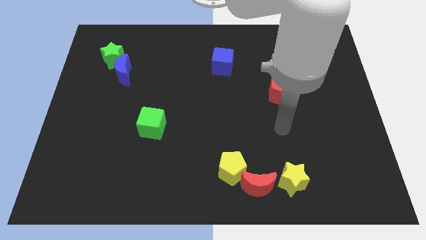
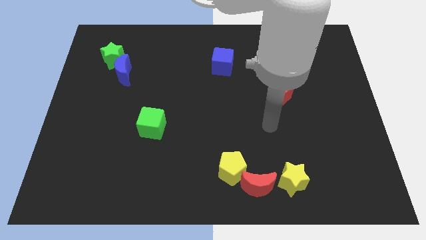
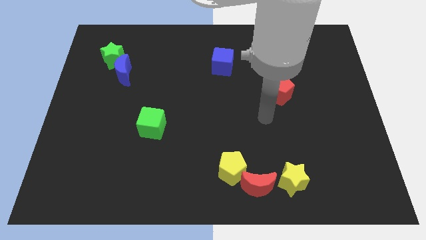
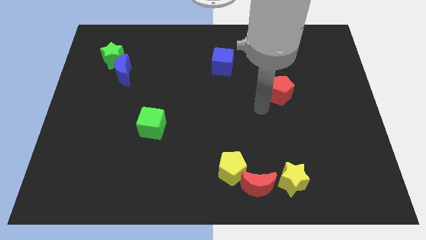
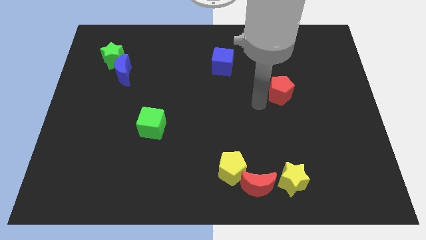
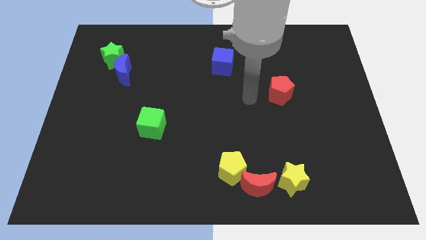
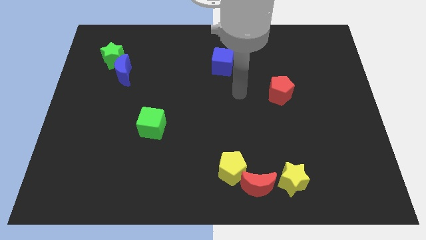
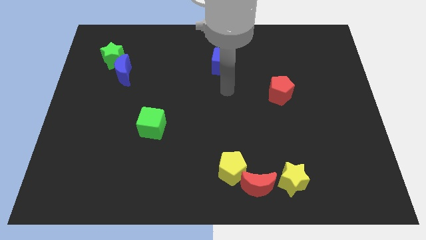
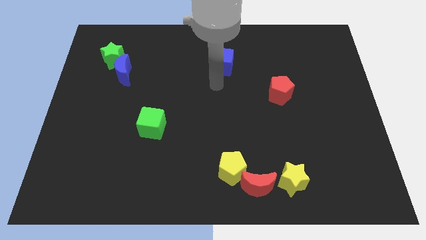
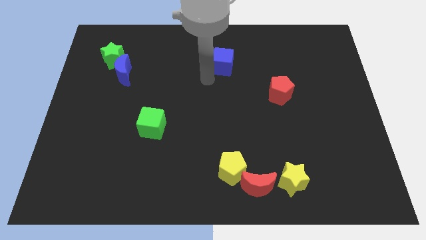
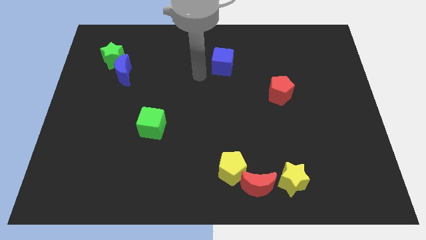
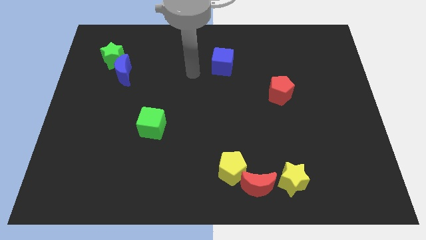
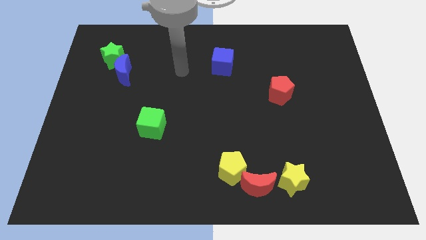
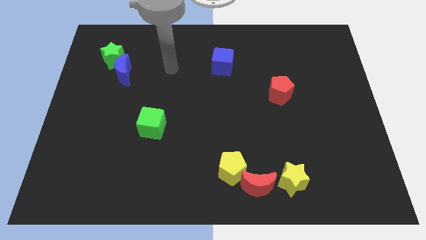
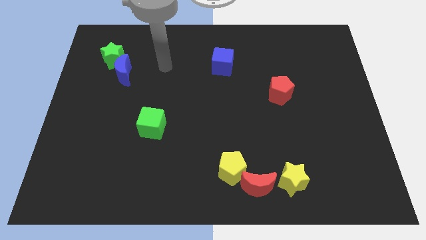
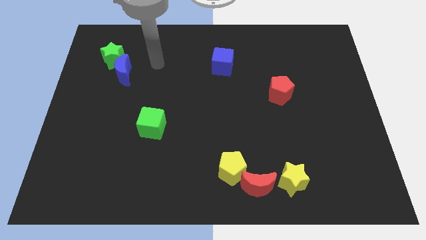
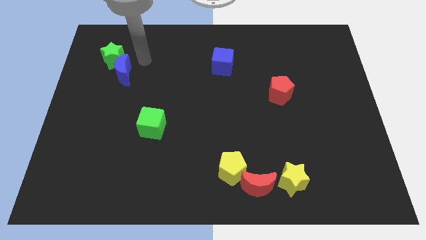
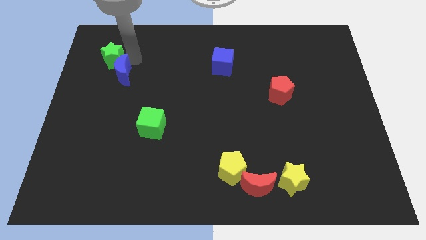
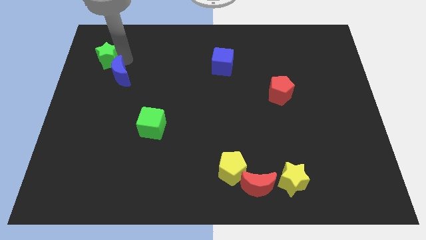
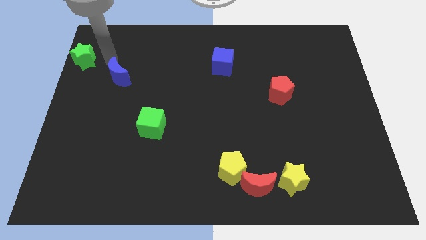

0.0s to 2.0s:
separate the blue moon from the green star

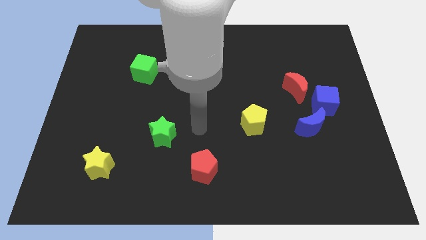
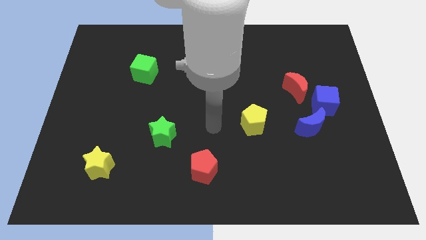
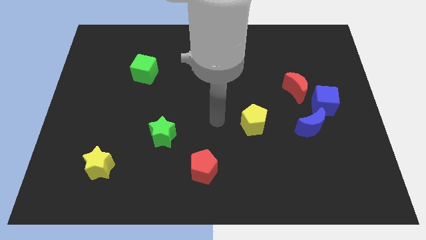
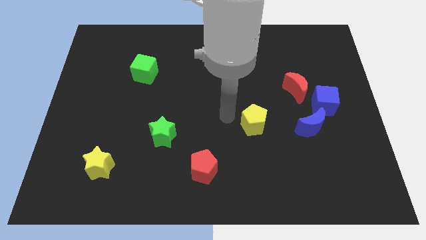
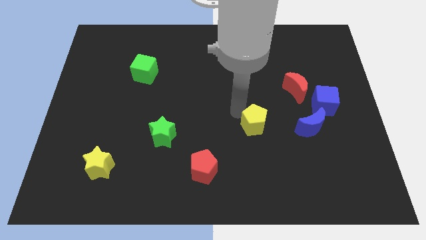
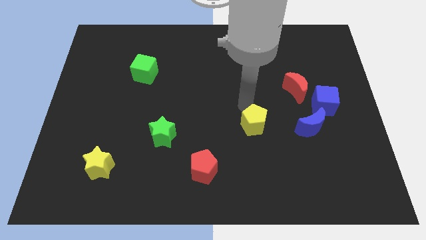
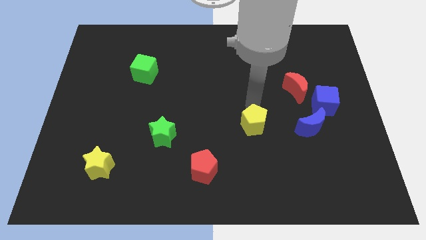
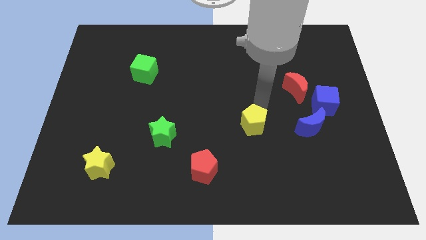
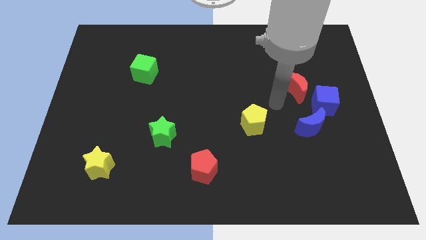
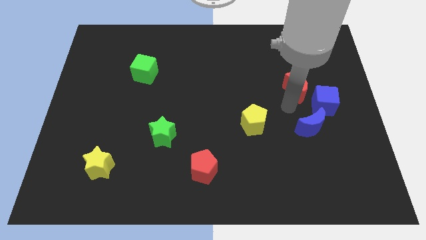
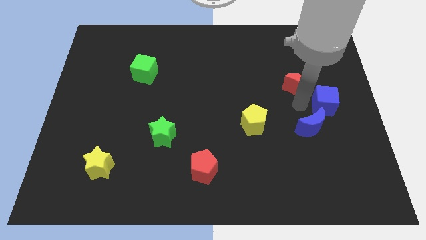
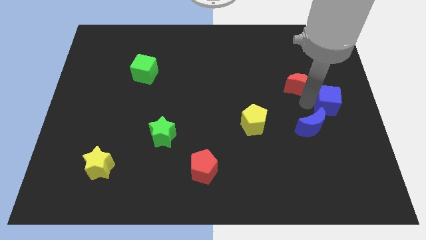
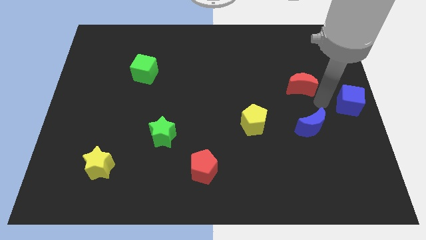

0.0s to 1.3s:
move the red moon away from the blue cube

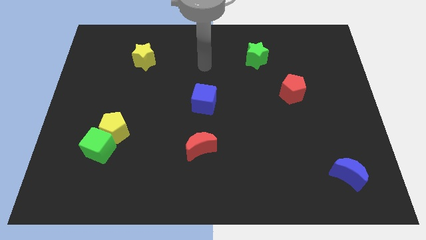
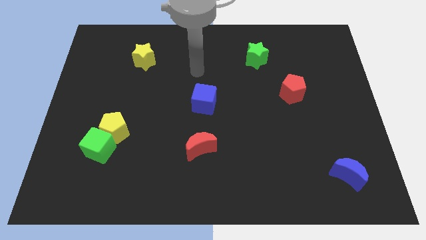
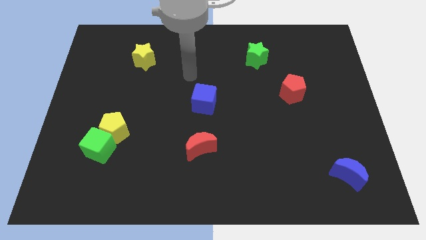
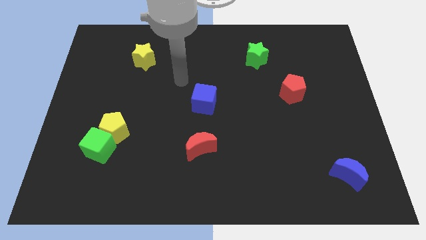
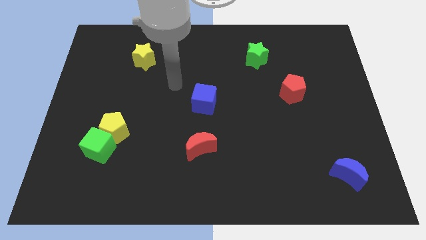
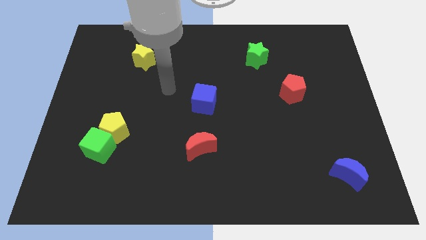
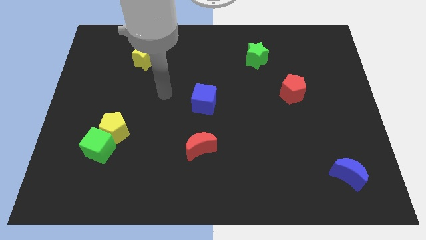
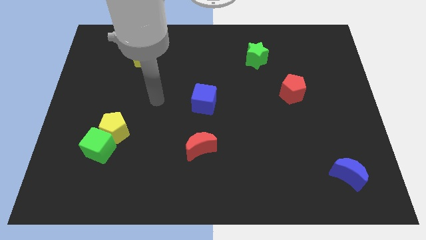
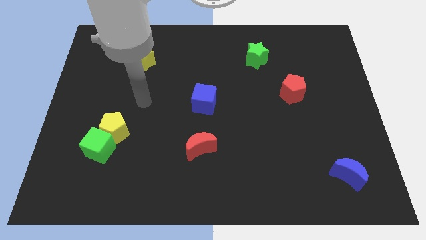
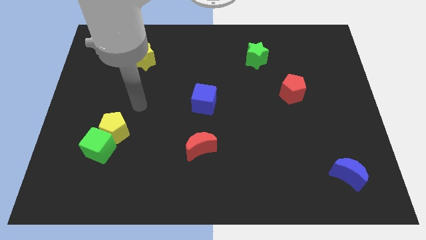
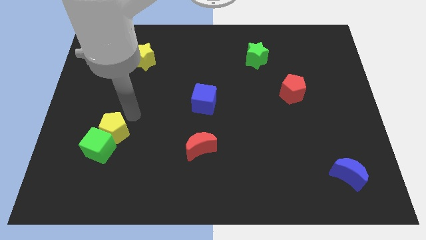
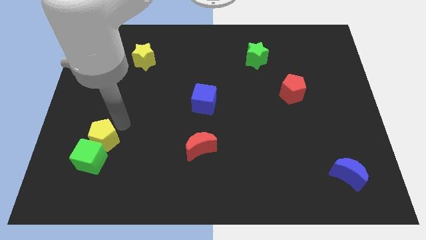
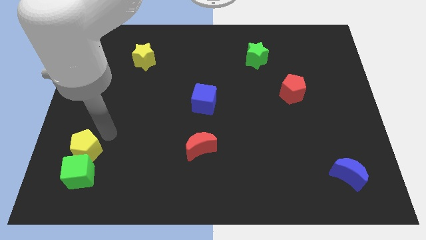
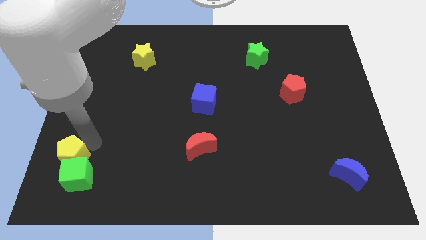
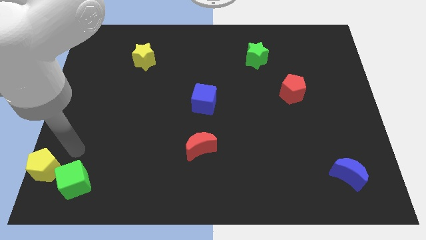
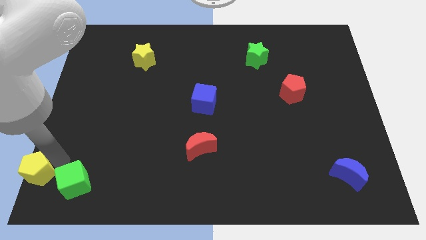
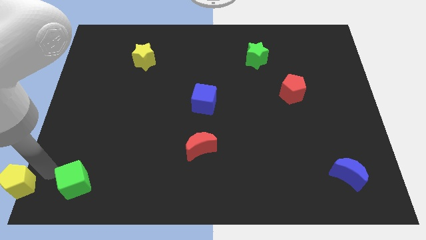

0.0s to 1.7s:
move the green cube away from the yellow pentagon

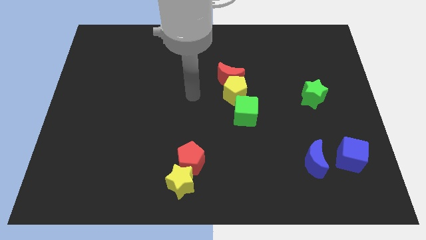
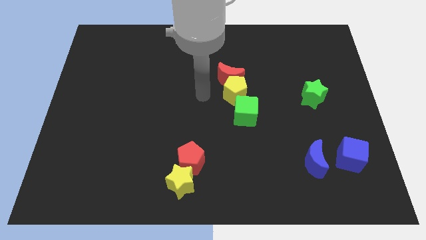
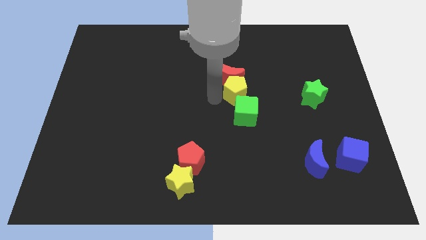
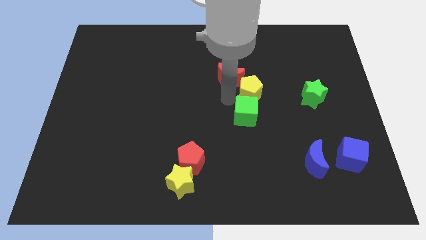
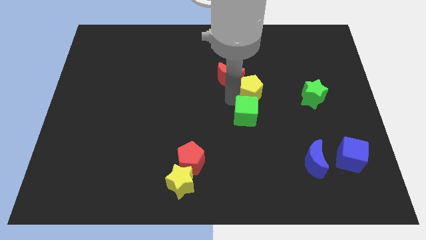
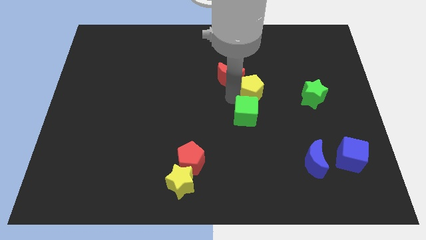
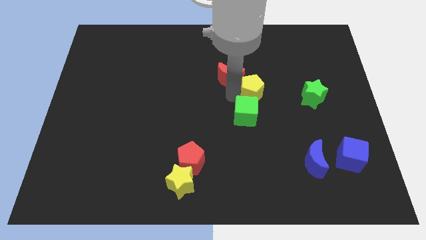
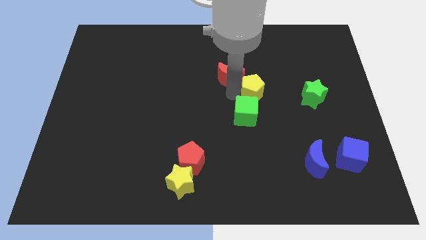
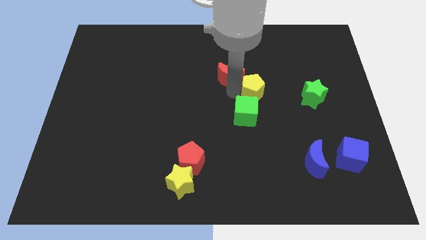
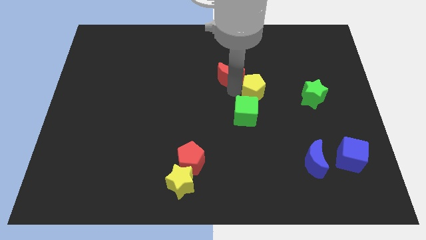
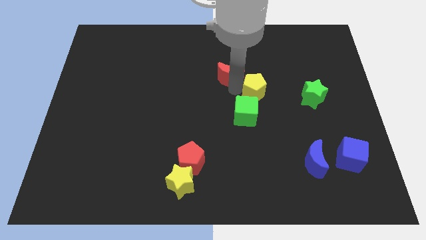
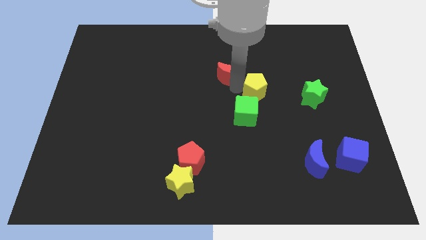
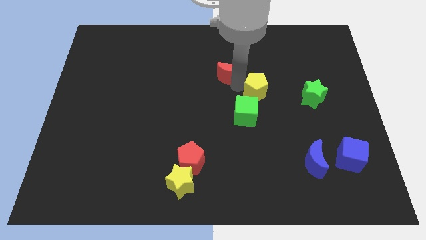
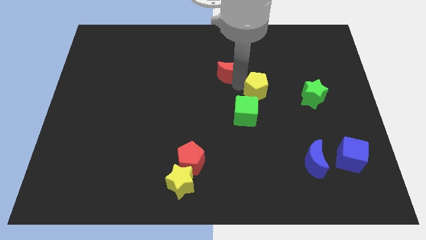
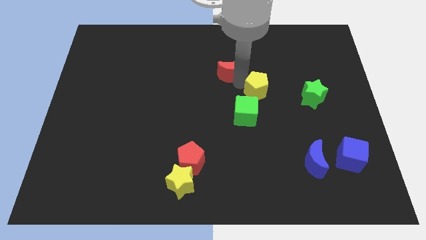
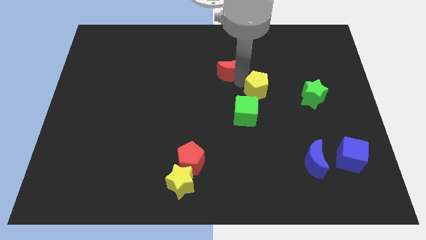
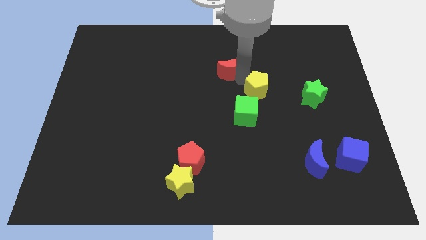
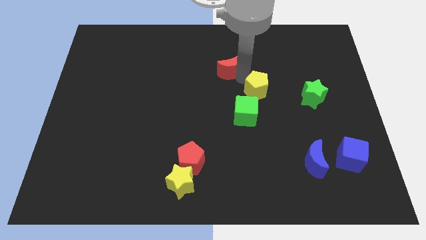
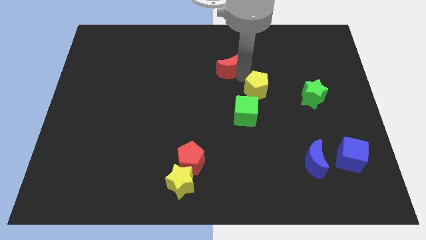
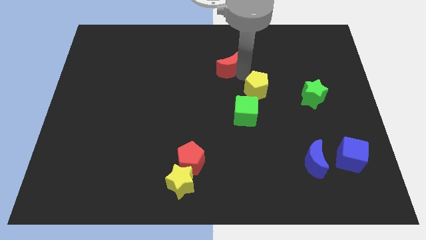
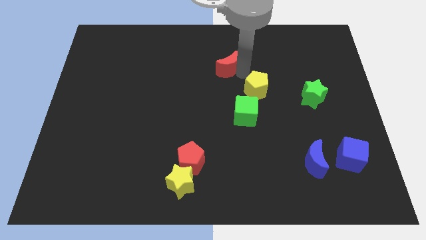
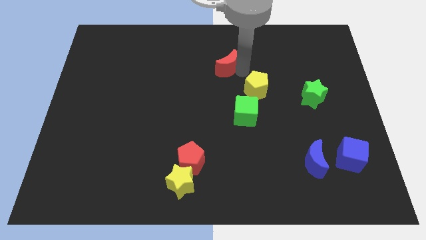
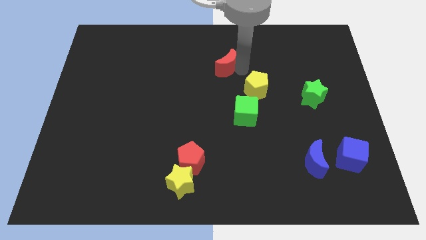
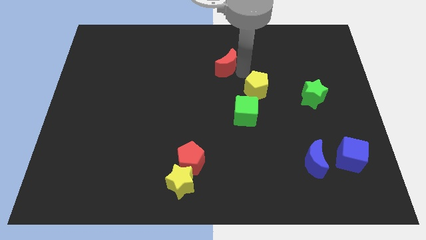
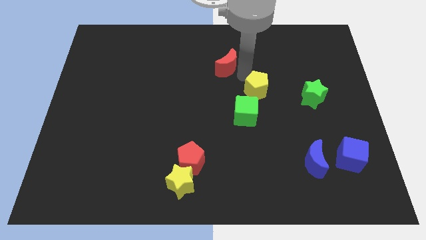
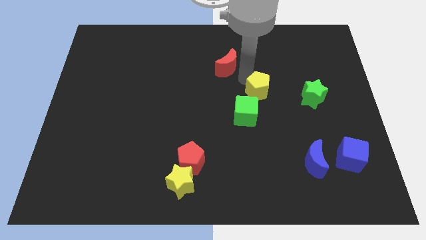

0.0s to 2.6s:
separate the red moon from the yellow pentagon

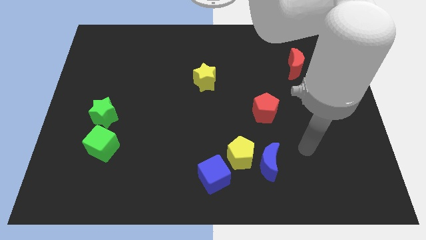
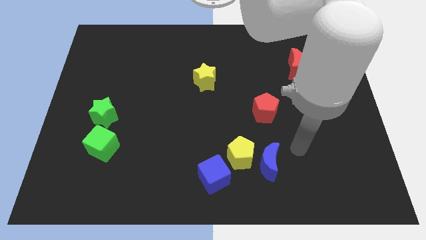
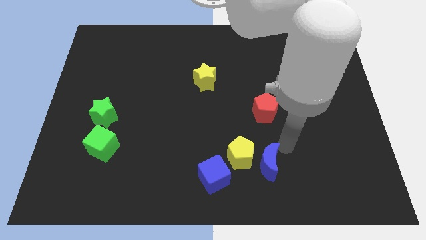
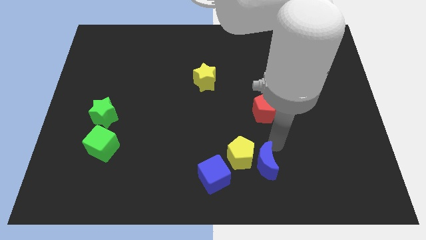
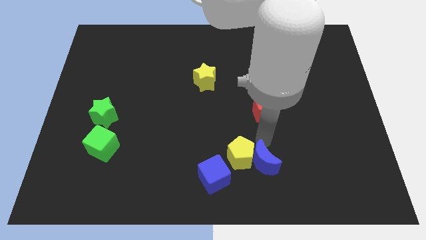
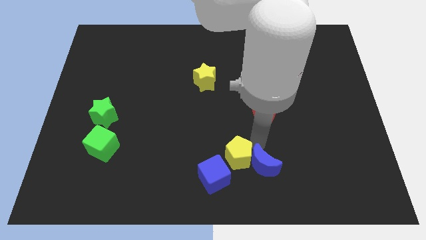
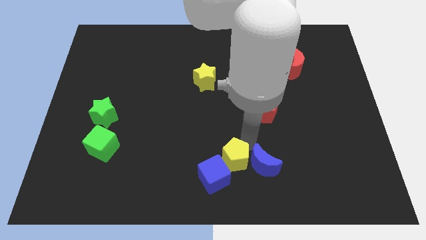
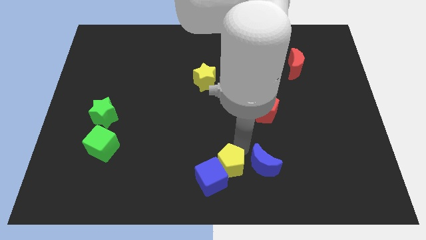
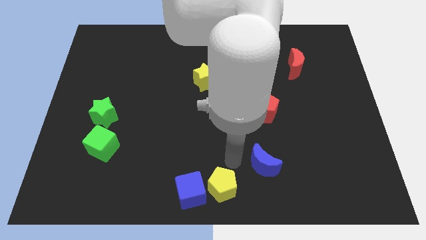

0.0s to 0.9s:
move the blue moon away from the yellow pentagon

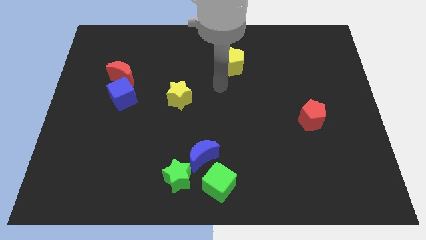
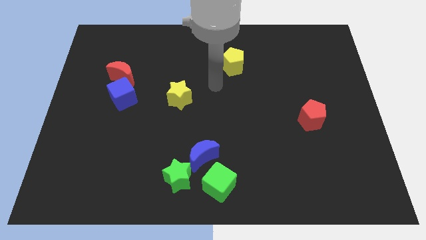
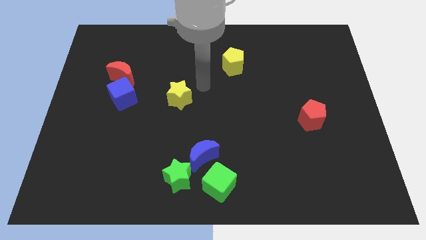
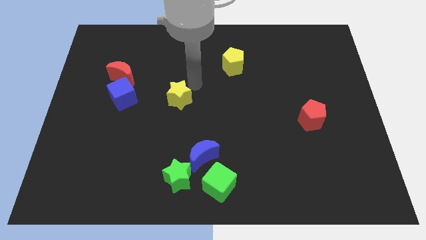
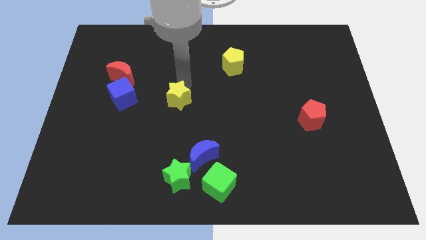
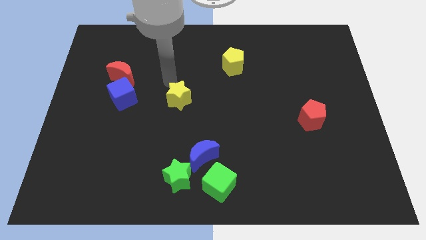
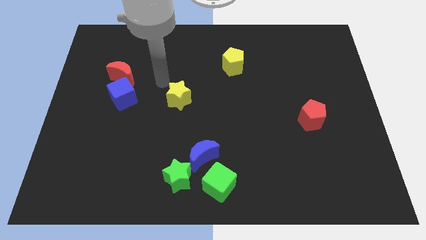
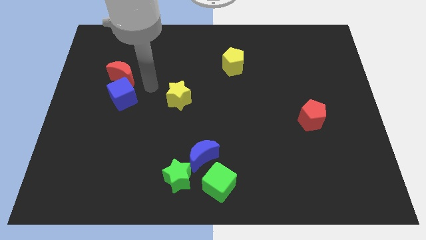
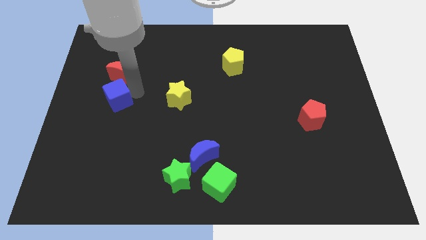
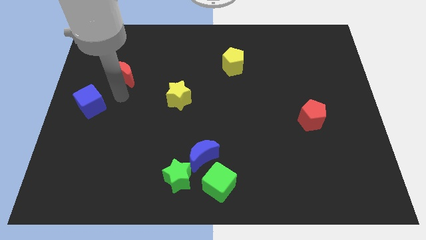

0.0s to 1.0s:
pull the red moon apart from the blue cube
